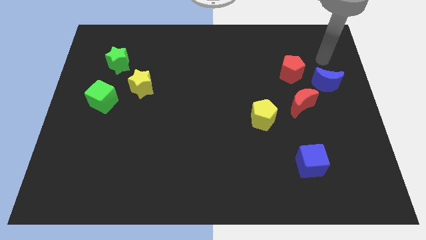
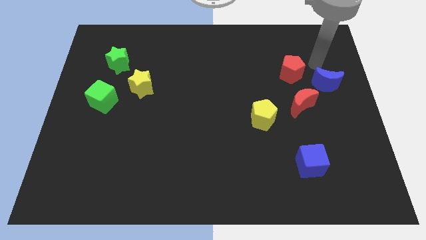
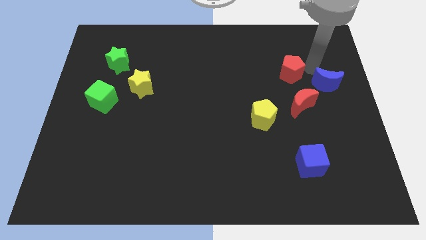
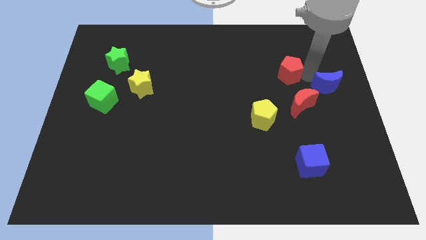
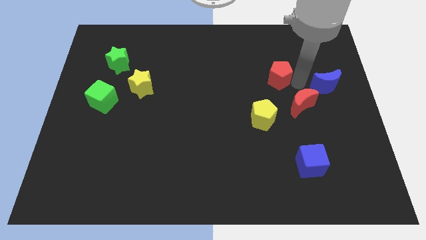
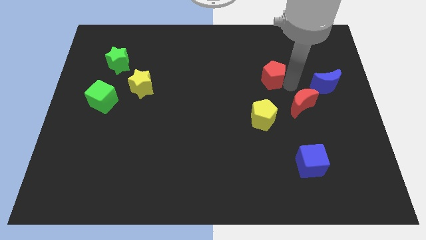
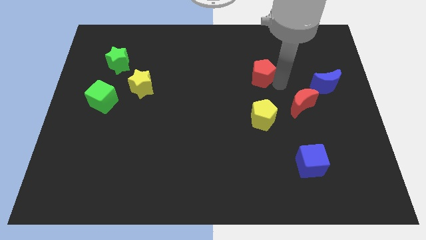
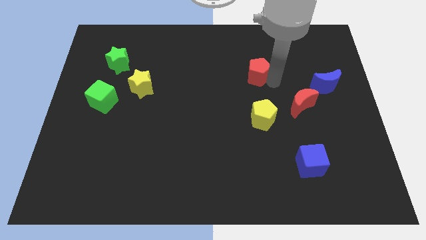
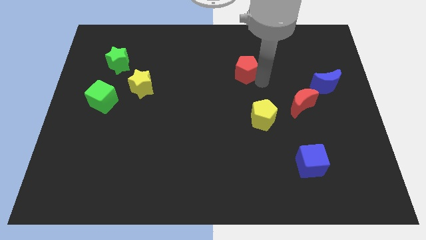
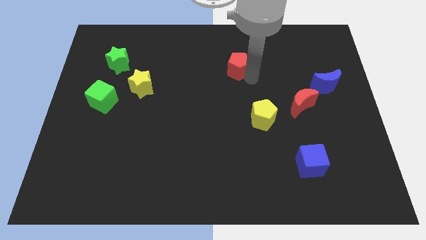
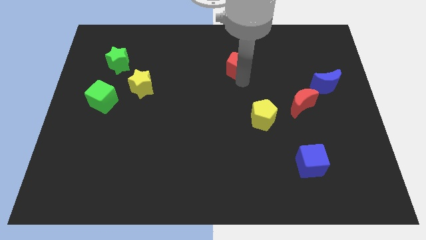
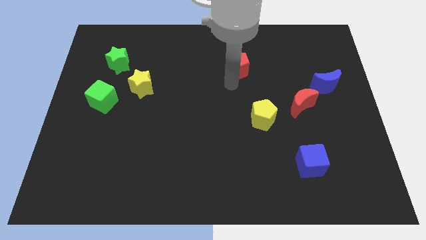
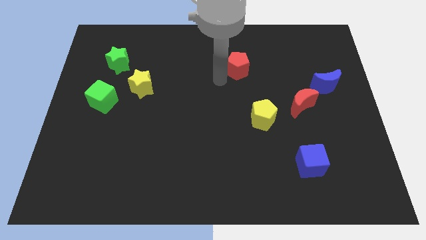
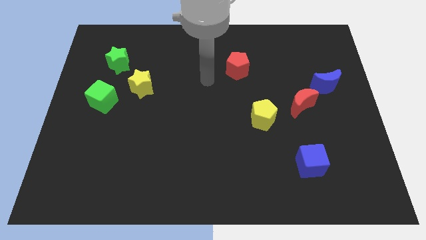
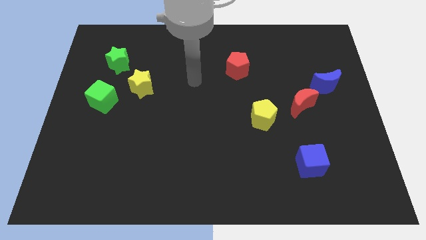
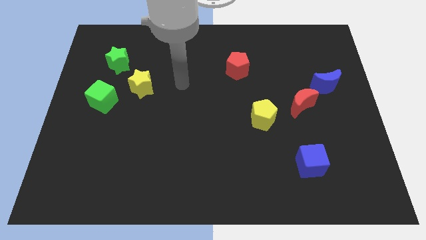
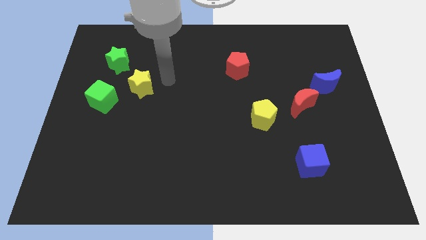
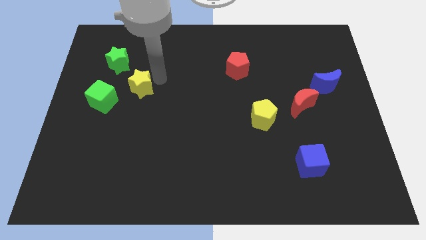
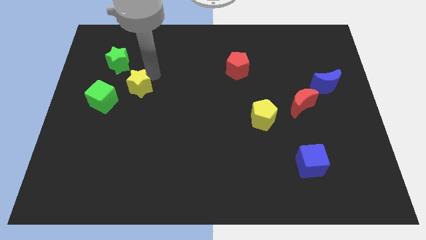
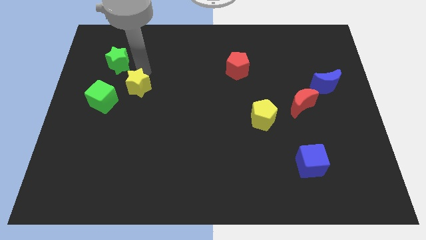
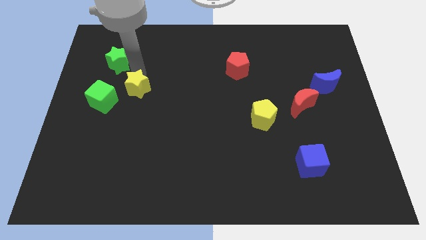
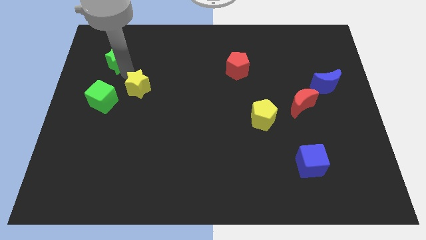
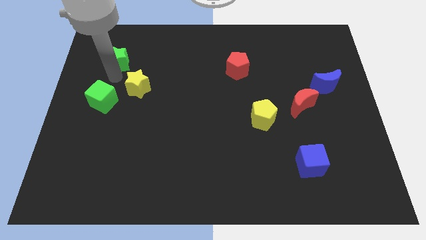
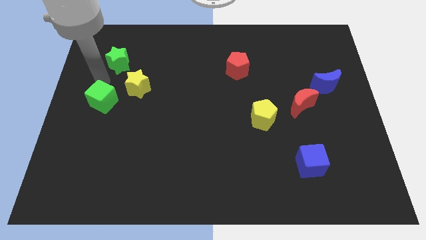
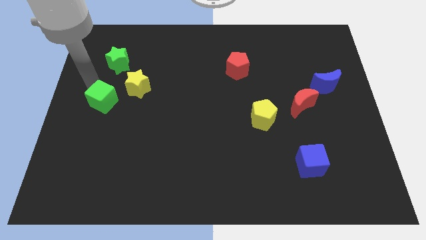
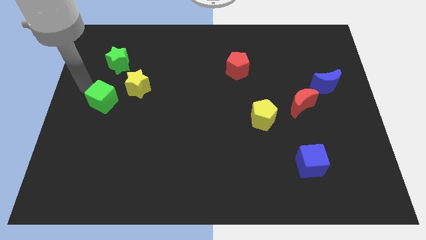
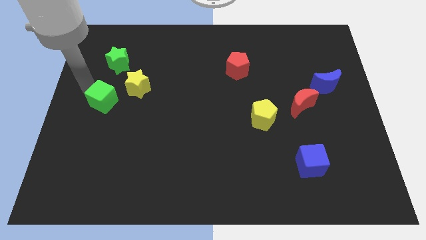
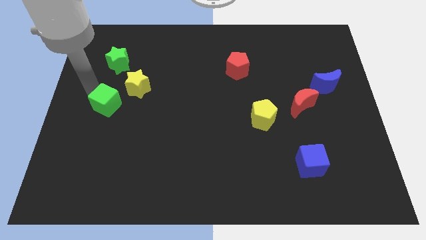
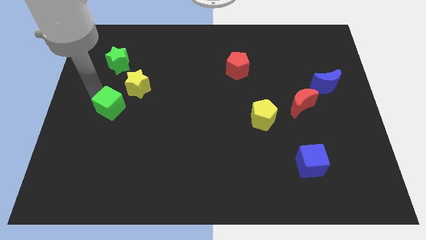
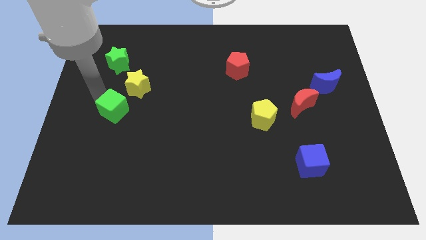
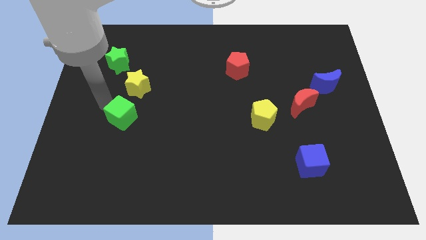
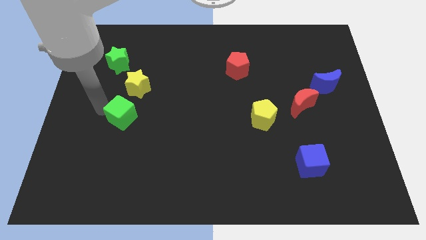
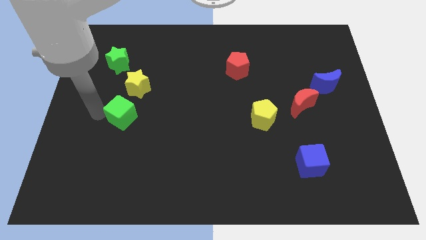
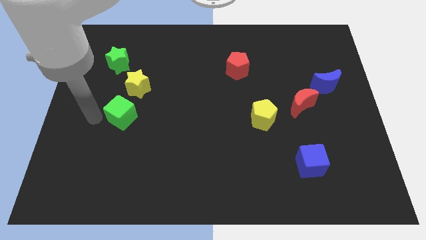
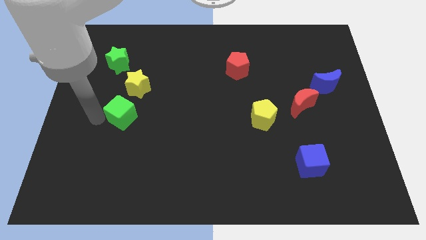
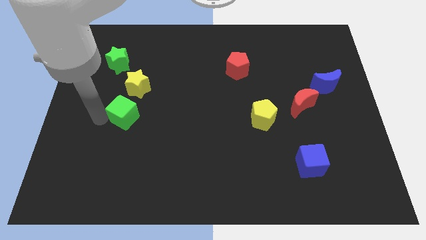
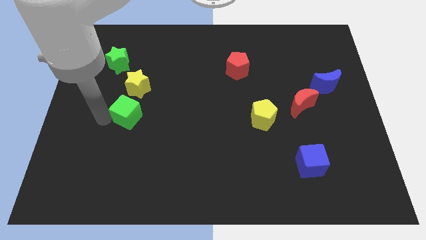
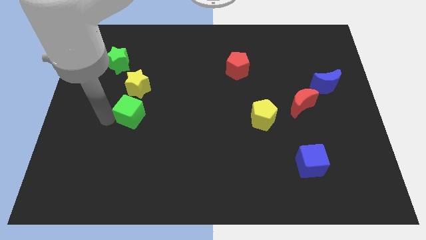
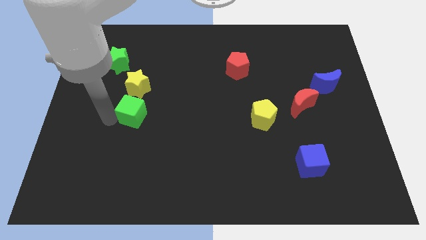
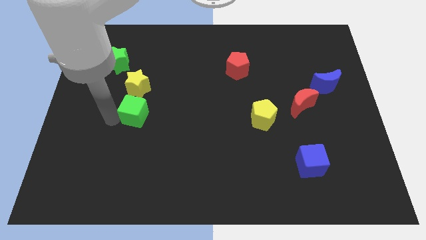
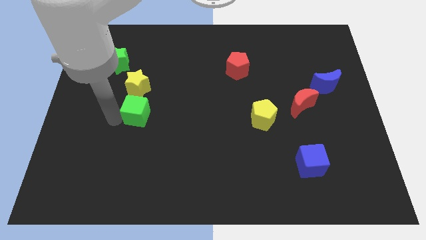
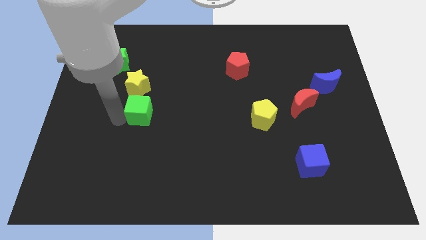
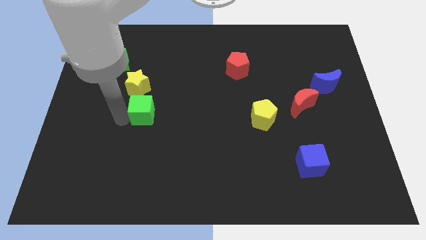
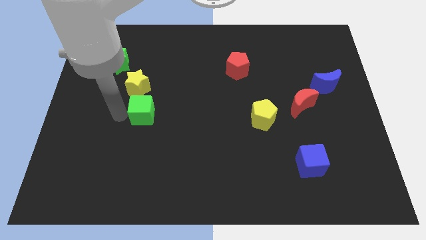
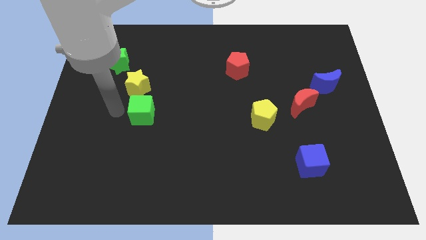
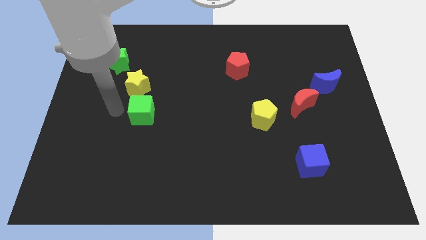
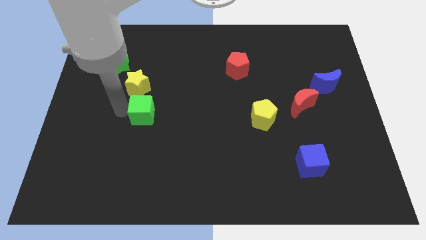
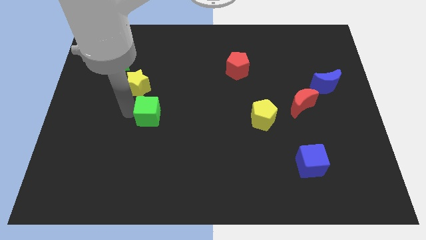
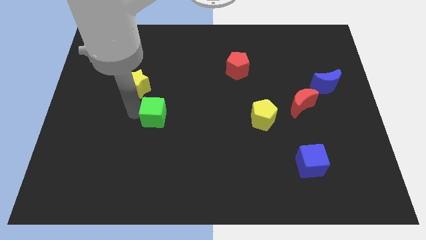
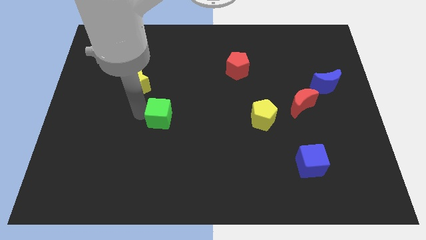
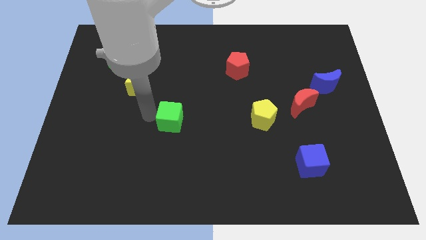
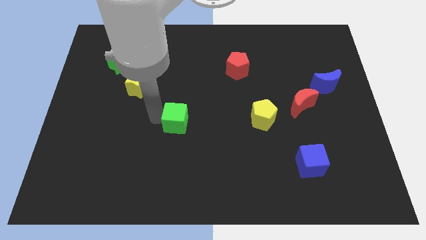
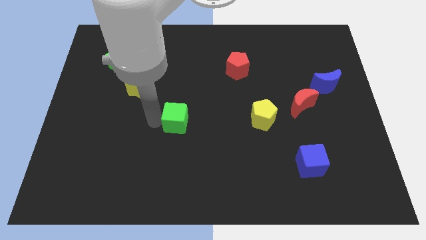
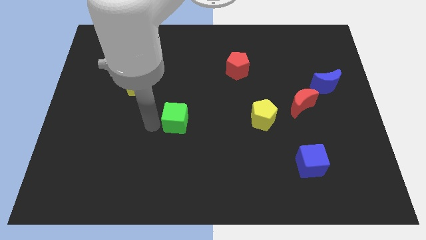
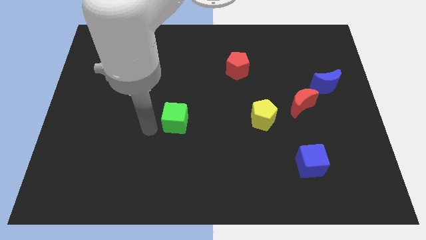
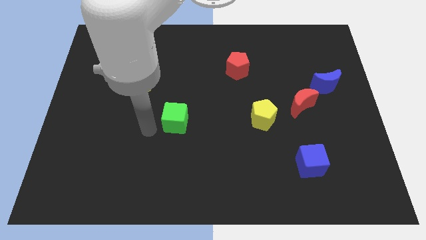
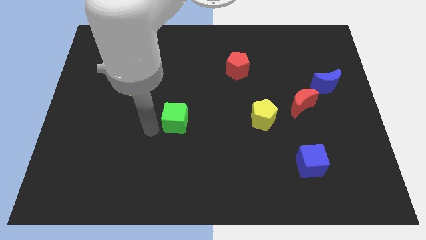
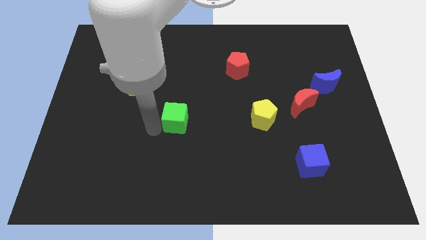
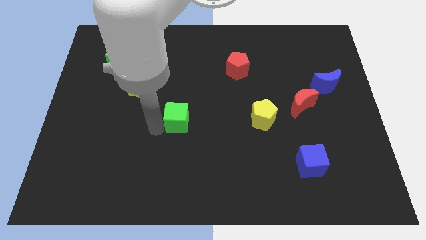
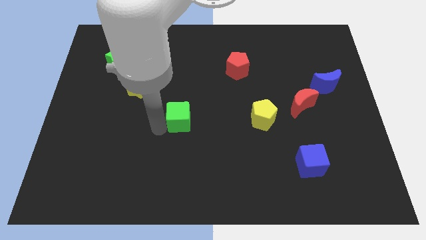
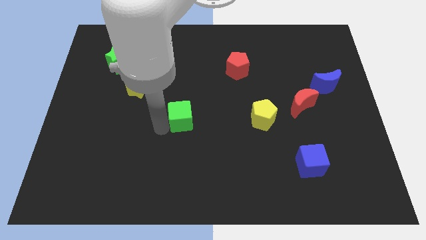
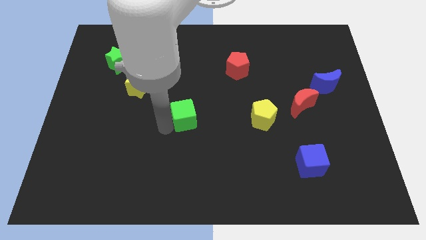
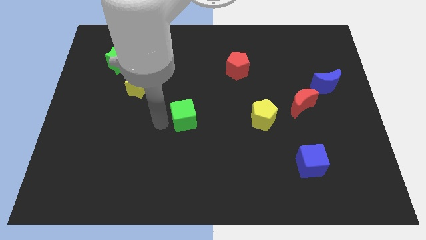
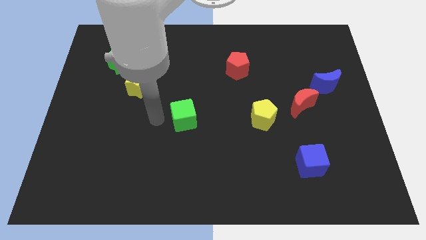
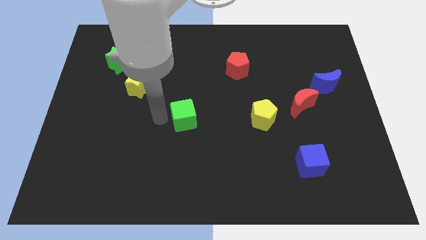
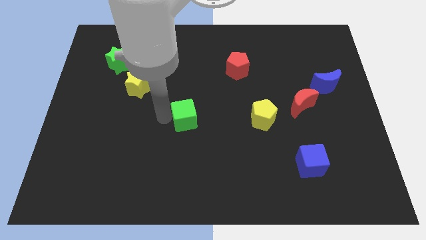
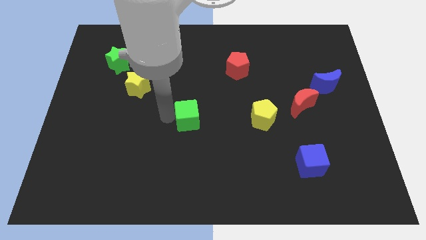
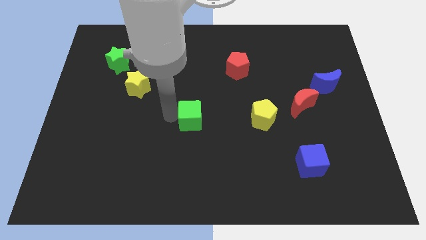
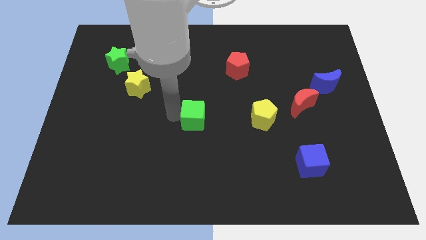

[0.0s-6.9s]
put the green cube to the left side of the yellow pentagon

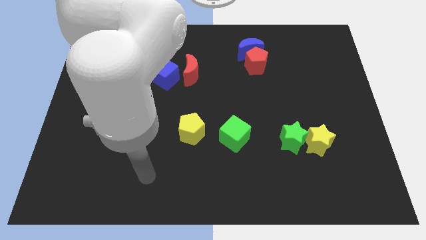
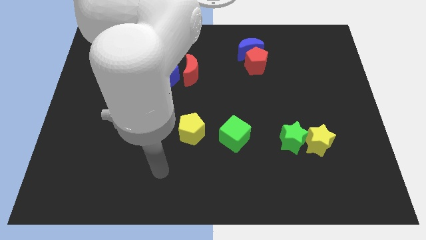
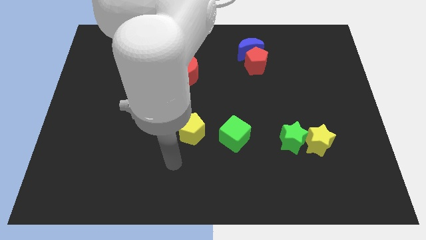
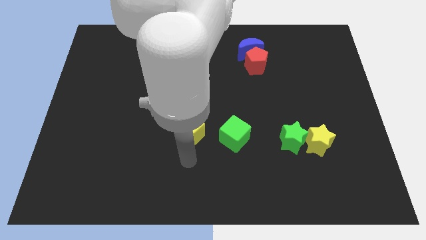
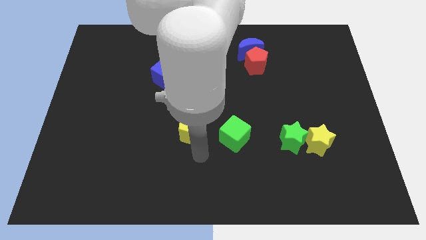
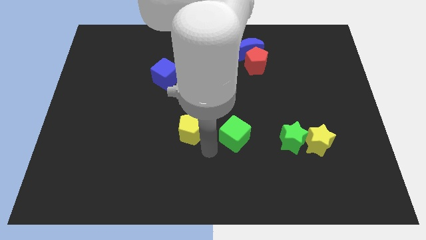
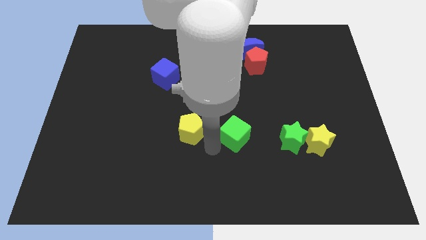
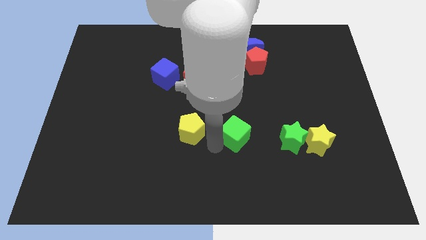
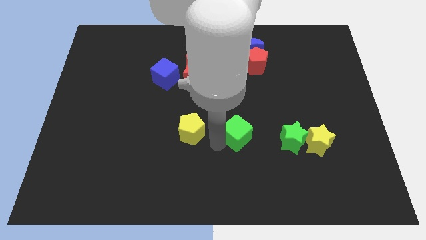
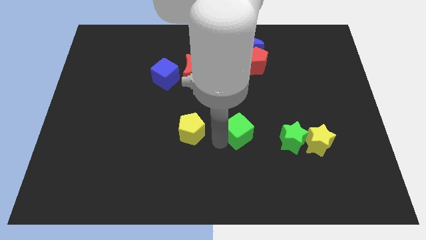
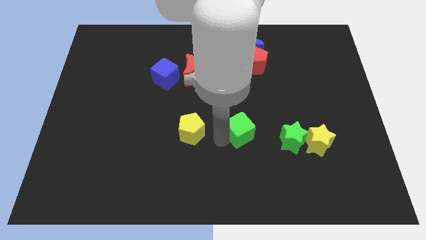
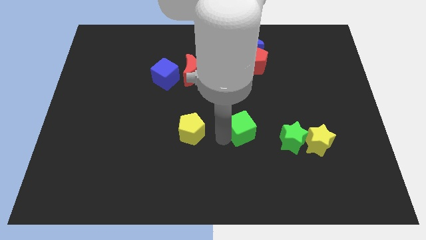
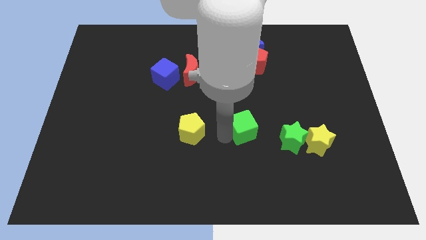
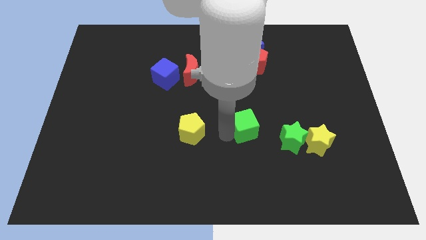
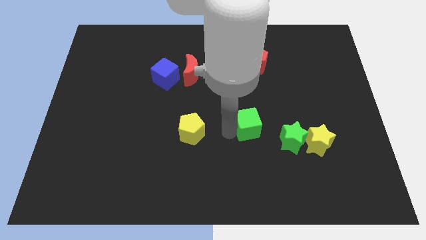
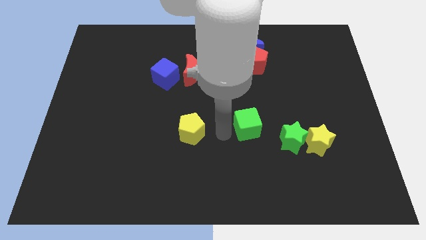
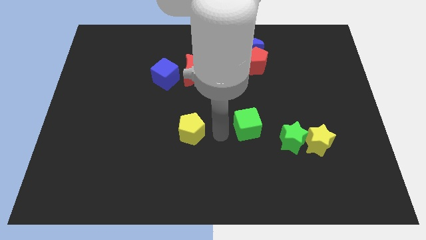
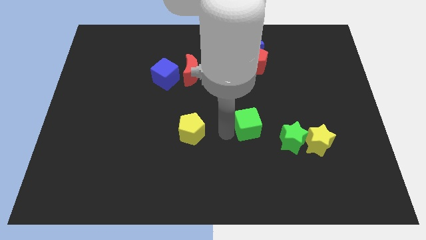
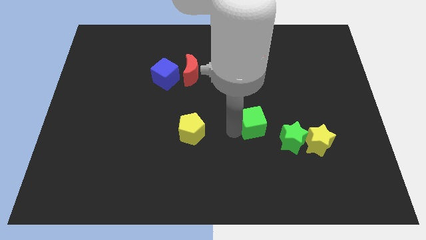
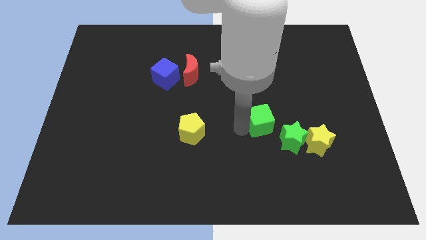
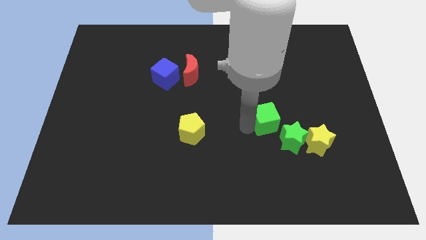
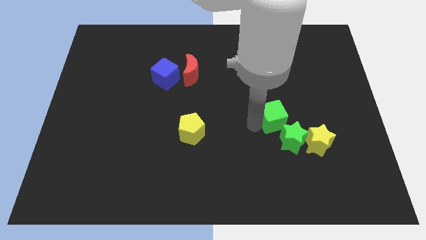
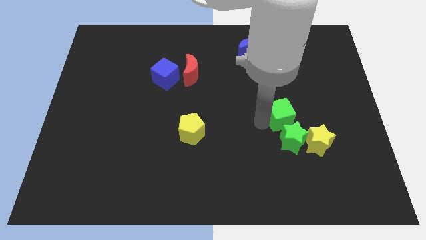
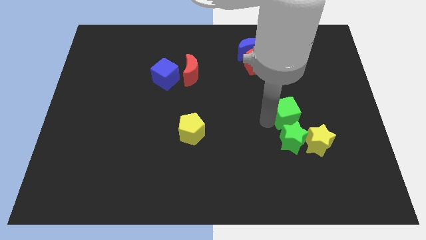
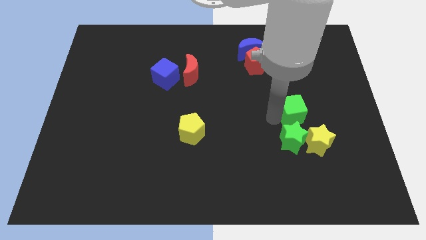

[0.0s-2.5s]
slide the green cube to the top right of the green star
